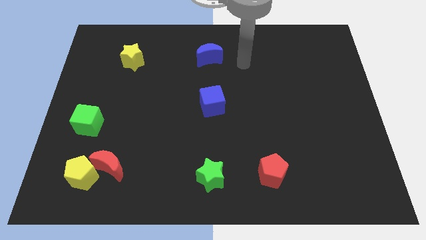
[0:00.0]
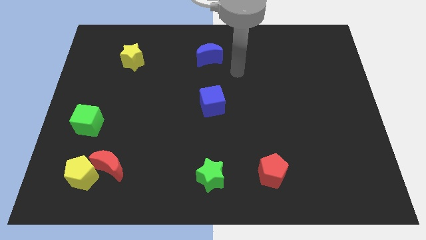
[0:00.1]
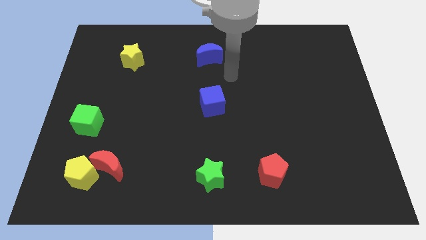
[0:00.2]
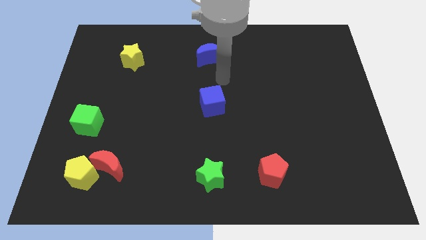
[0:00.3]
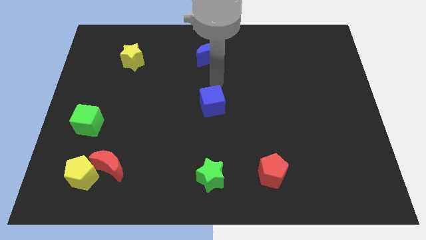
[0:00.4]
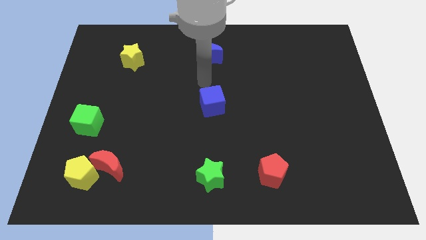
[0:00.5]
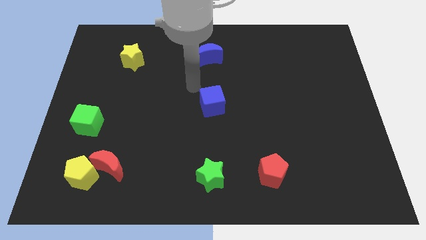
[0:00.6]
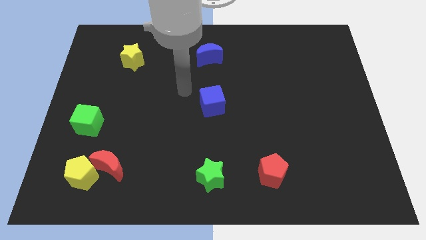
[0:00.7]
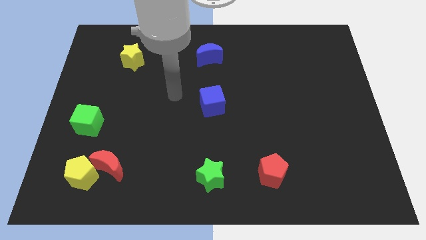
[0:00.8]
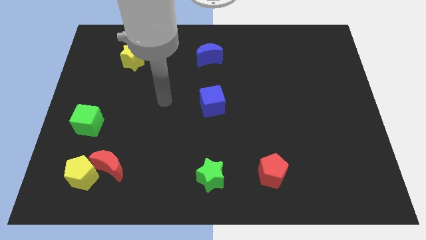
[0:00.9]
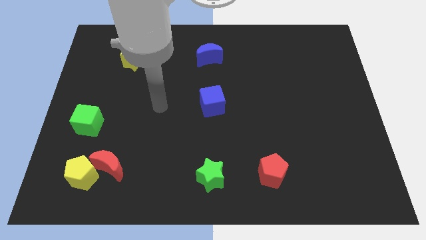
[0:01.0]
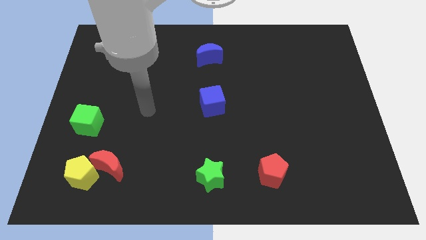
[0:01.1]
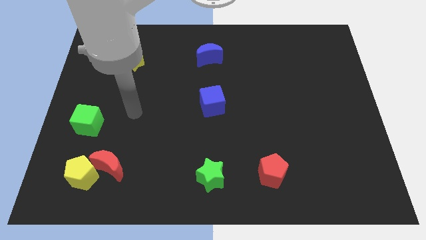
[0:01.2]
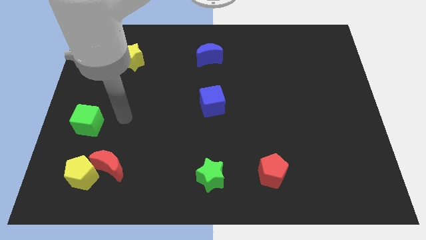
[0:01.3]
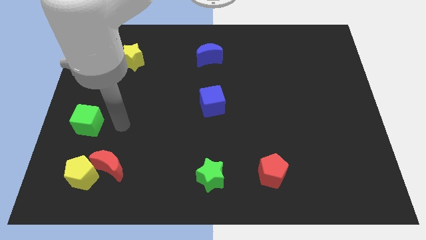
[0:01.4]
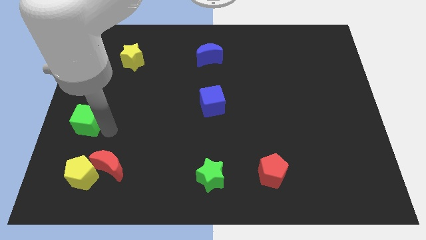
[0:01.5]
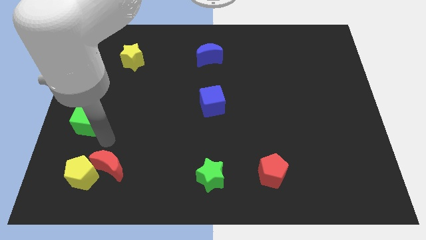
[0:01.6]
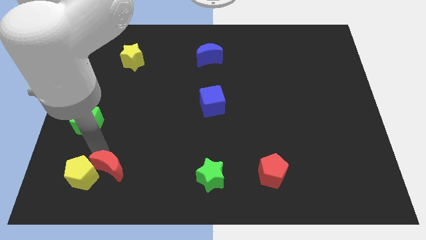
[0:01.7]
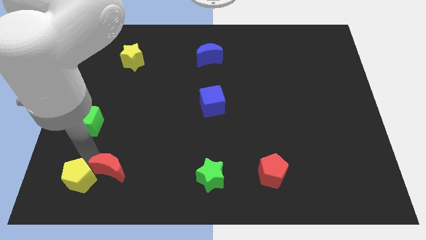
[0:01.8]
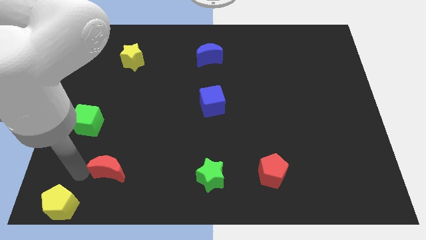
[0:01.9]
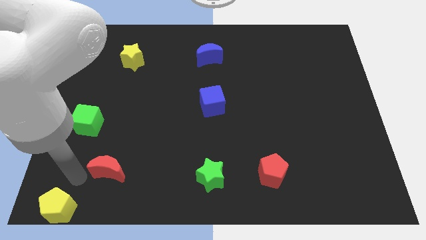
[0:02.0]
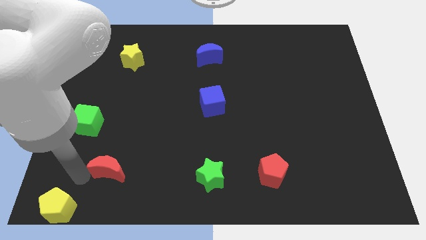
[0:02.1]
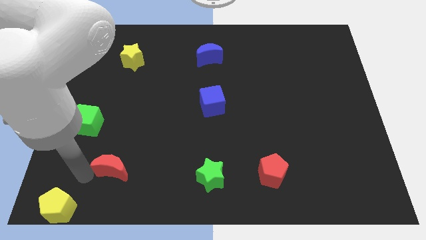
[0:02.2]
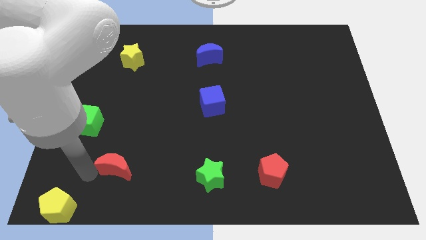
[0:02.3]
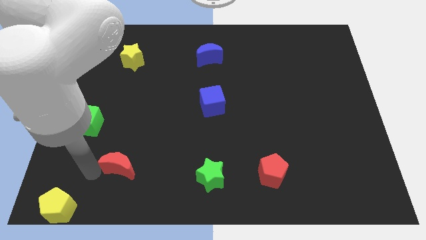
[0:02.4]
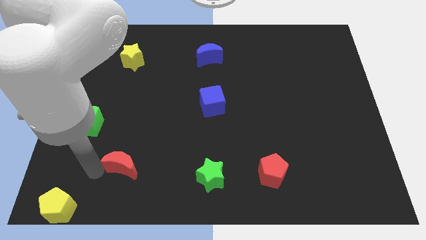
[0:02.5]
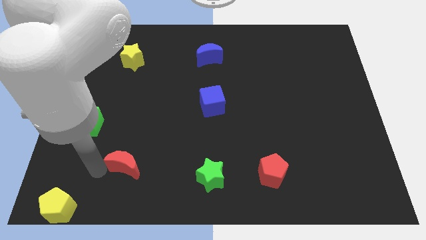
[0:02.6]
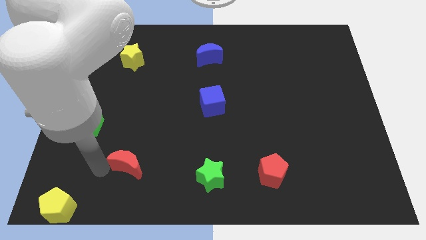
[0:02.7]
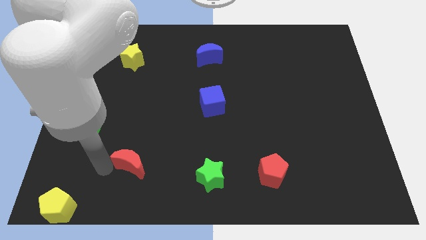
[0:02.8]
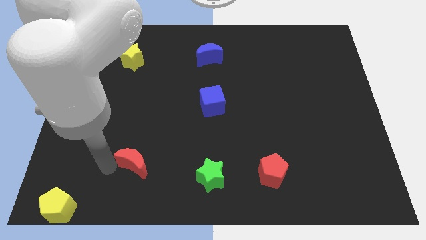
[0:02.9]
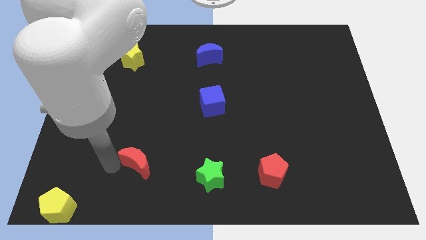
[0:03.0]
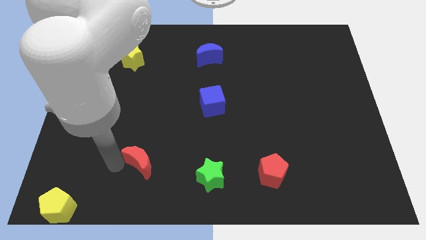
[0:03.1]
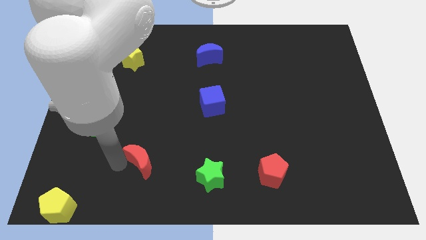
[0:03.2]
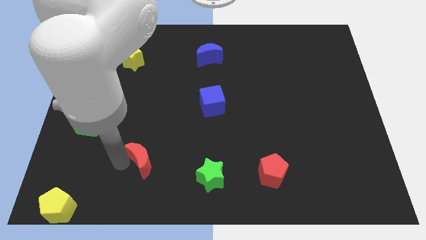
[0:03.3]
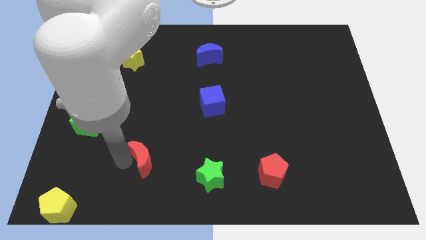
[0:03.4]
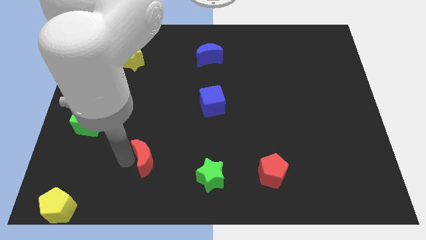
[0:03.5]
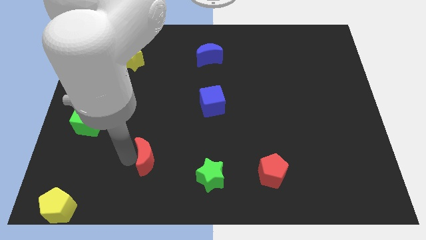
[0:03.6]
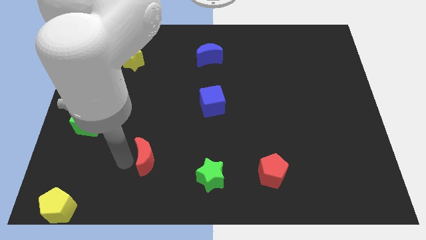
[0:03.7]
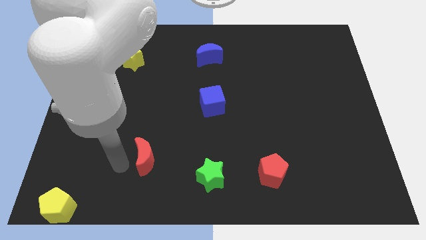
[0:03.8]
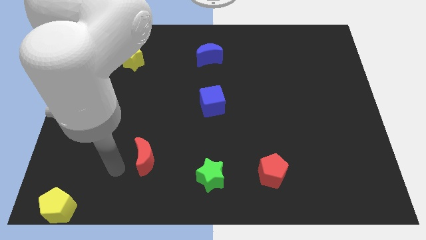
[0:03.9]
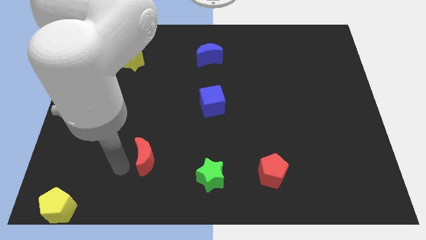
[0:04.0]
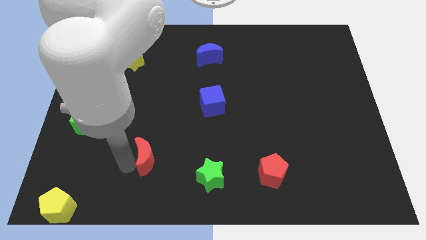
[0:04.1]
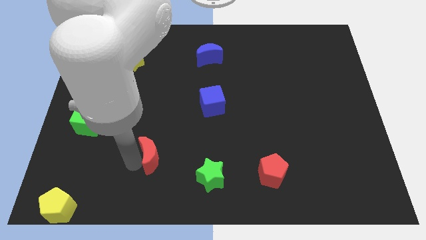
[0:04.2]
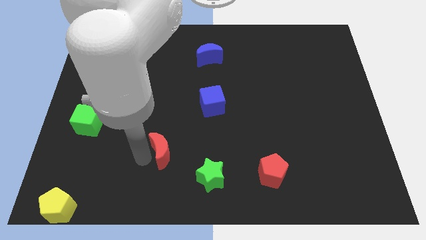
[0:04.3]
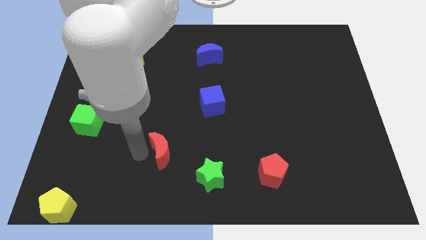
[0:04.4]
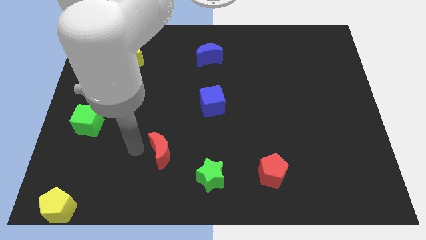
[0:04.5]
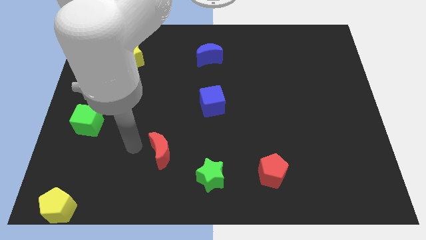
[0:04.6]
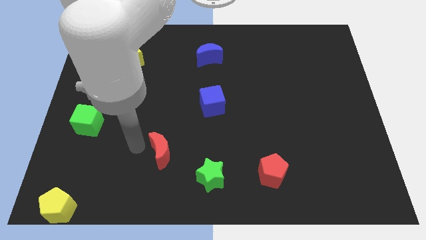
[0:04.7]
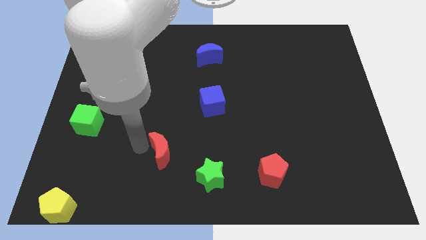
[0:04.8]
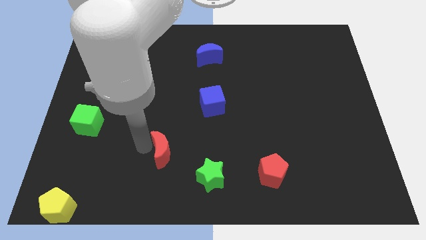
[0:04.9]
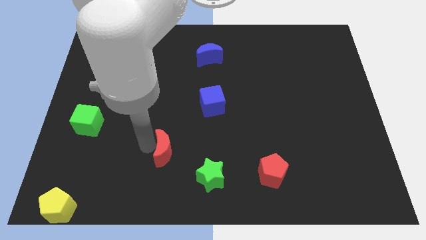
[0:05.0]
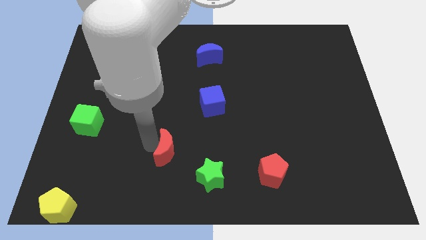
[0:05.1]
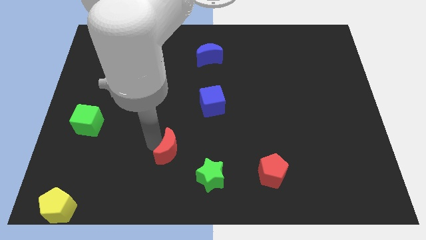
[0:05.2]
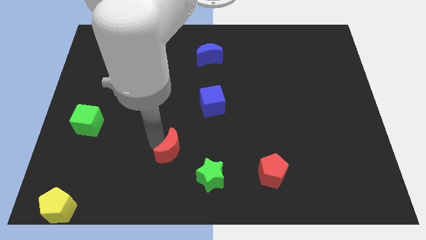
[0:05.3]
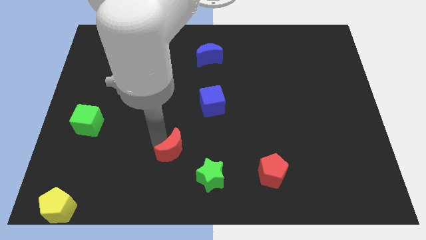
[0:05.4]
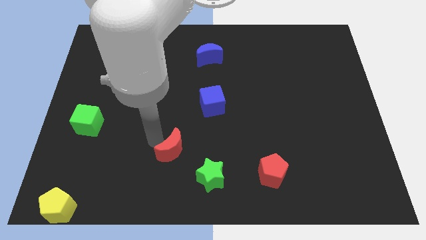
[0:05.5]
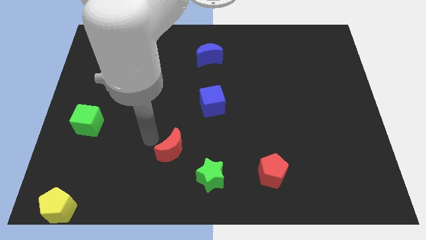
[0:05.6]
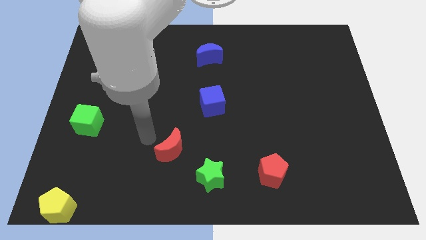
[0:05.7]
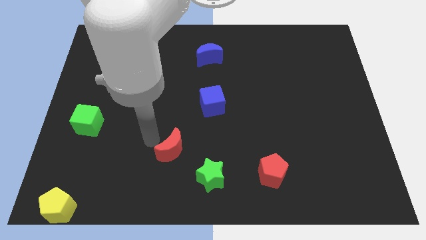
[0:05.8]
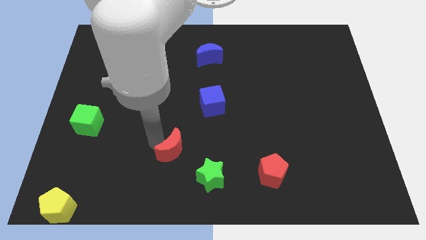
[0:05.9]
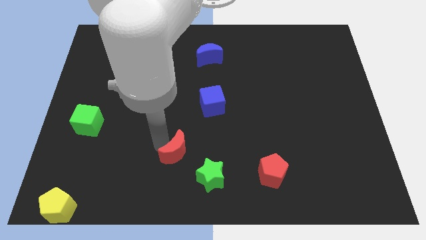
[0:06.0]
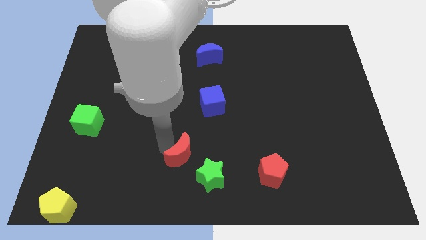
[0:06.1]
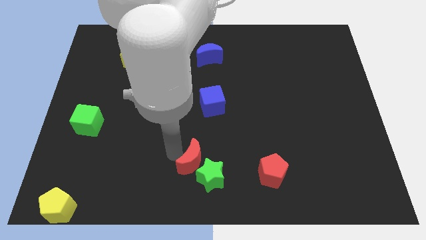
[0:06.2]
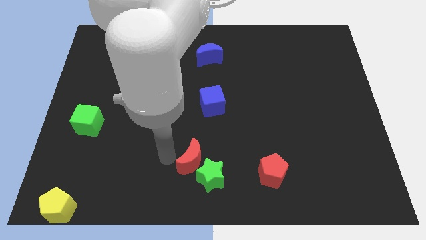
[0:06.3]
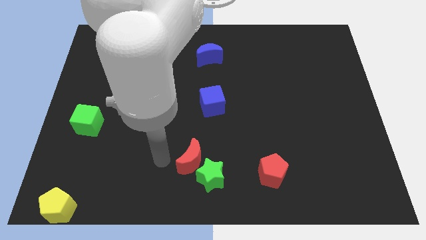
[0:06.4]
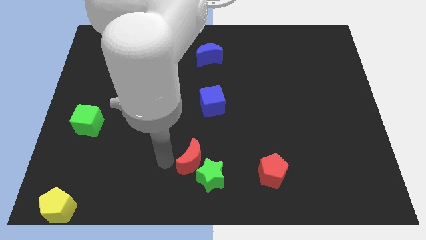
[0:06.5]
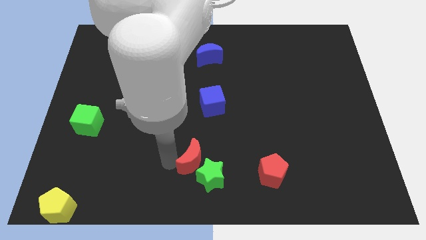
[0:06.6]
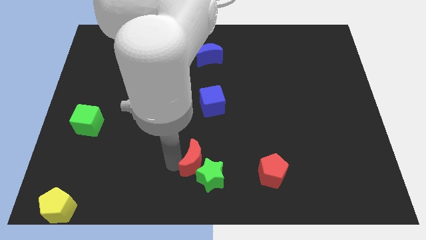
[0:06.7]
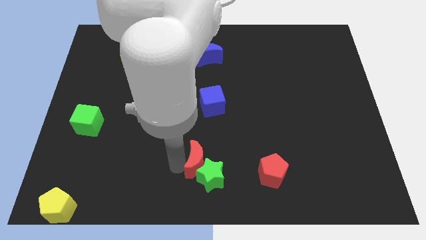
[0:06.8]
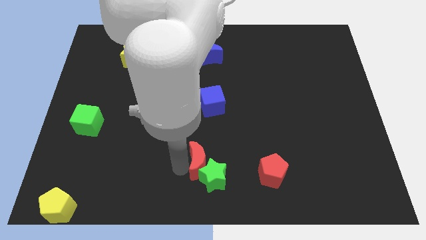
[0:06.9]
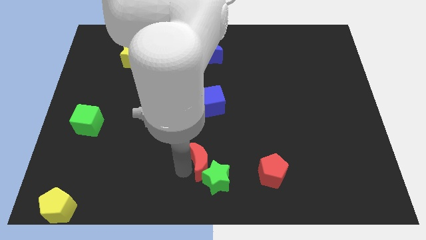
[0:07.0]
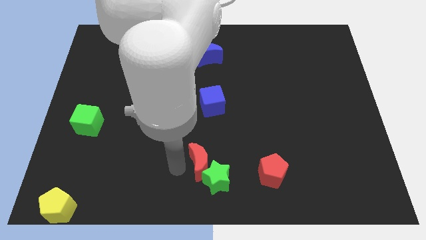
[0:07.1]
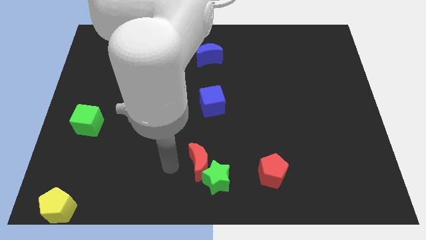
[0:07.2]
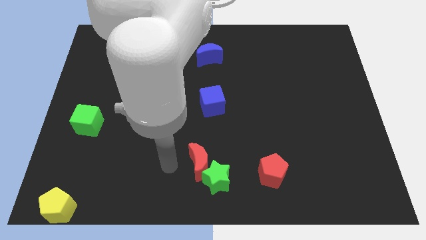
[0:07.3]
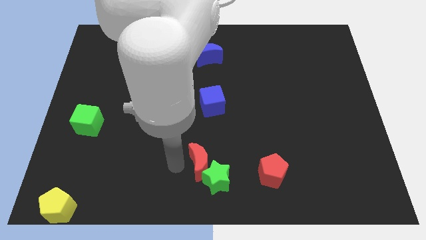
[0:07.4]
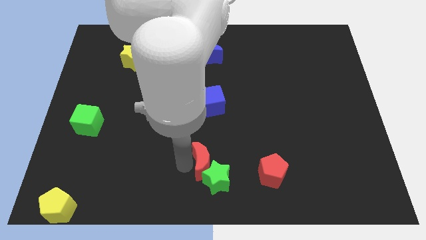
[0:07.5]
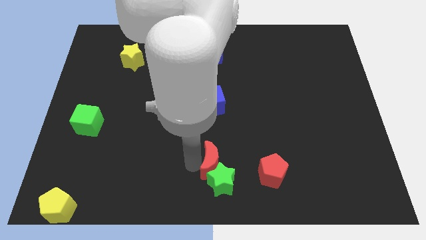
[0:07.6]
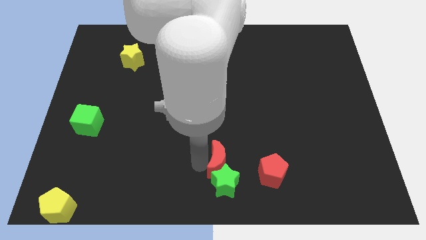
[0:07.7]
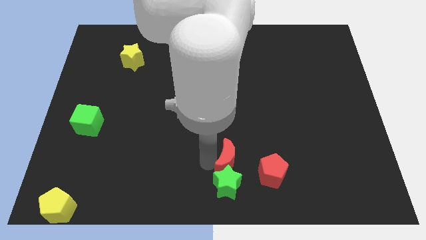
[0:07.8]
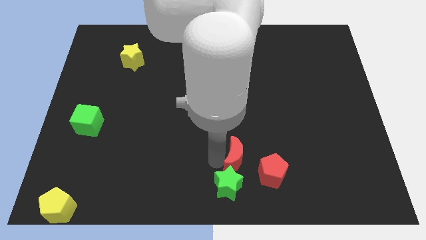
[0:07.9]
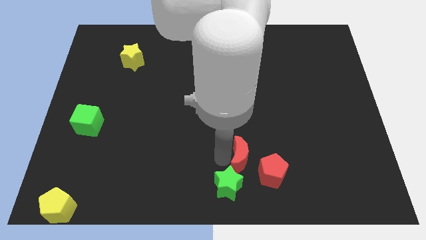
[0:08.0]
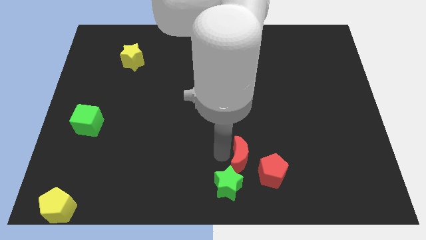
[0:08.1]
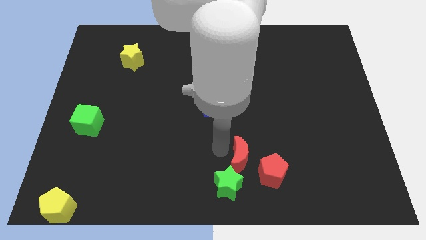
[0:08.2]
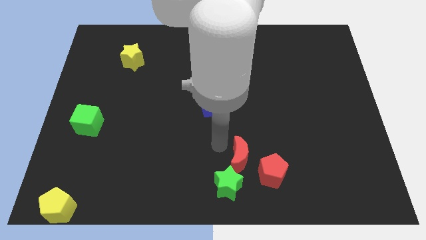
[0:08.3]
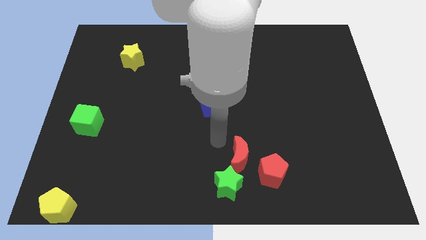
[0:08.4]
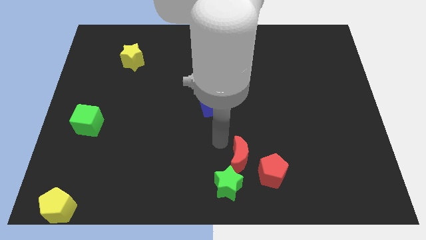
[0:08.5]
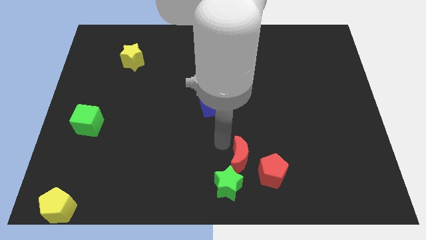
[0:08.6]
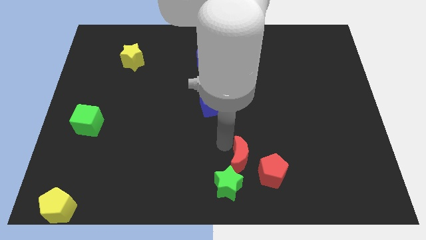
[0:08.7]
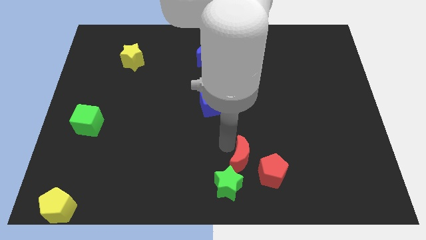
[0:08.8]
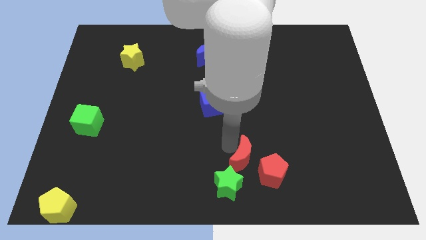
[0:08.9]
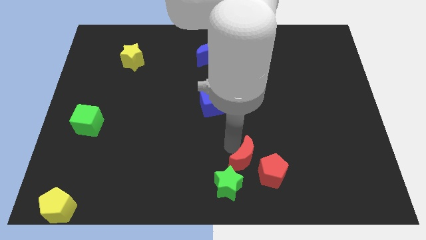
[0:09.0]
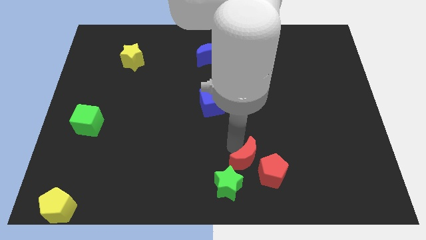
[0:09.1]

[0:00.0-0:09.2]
move the red moon close to the red pentagon
